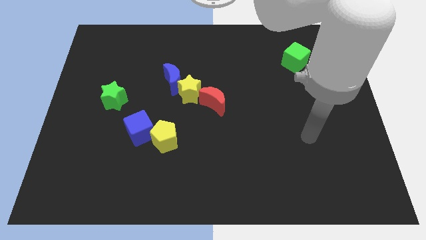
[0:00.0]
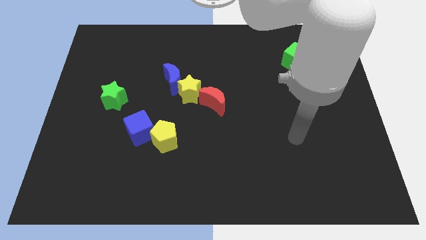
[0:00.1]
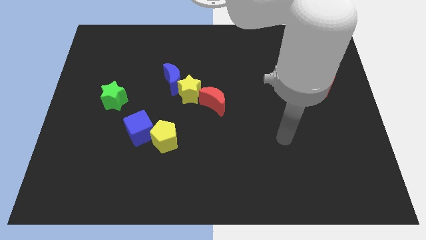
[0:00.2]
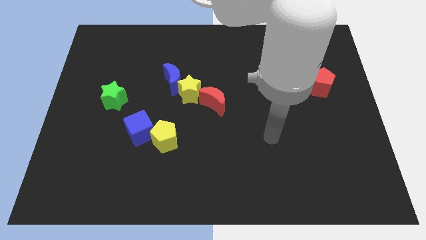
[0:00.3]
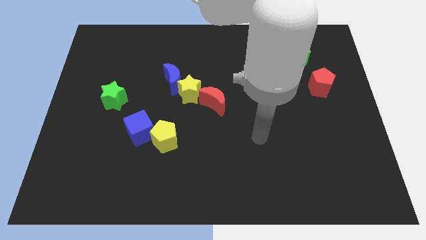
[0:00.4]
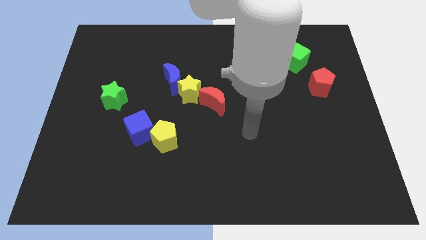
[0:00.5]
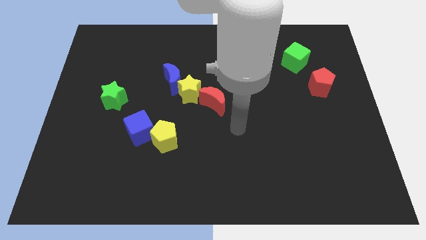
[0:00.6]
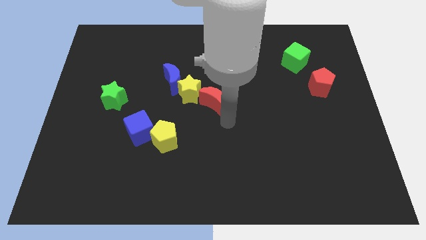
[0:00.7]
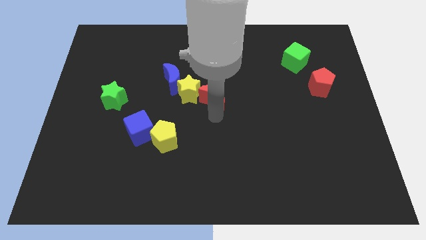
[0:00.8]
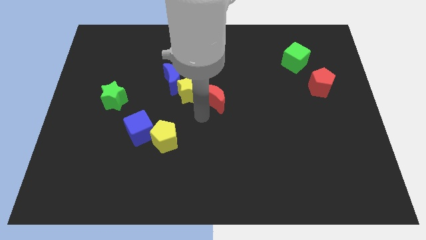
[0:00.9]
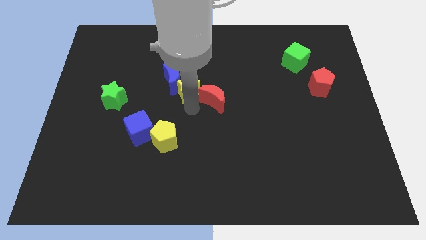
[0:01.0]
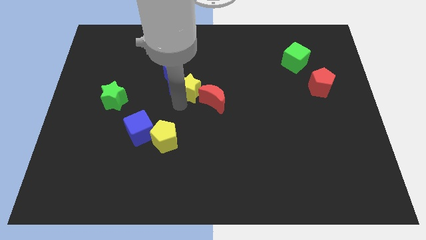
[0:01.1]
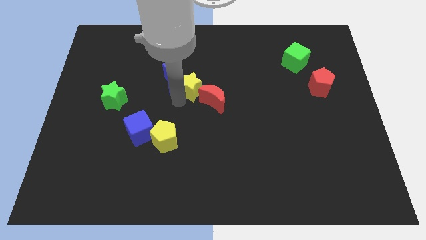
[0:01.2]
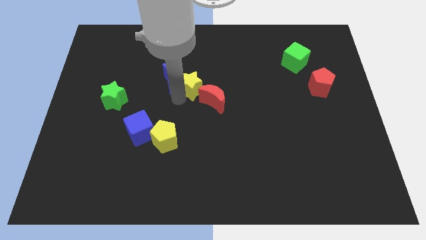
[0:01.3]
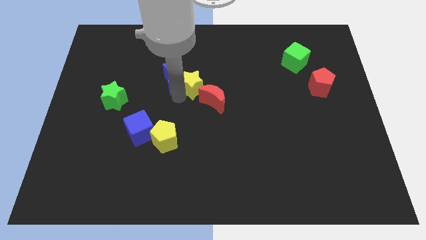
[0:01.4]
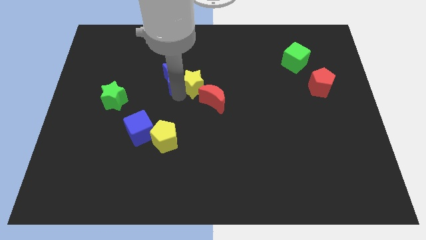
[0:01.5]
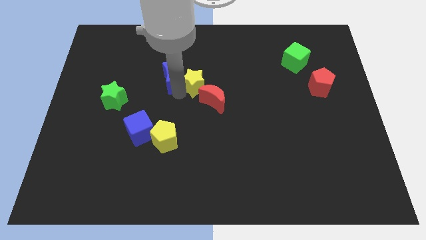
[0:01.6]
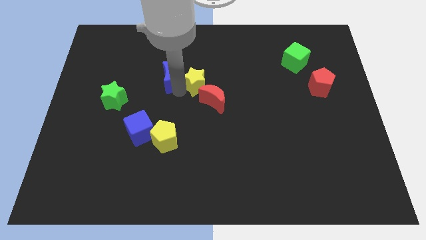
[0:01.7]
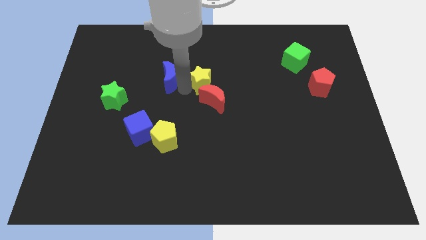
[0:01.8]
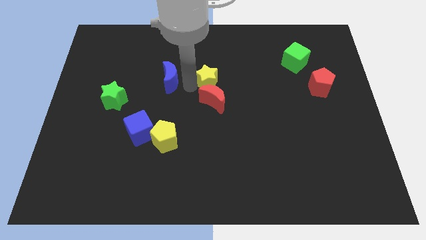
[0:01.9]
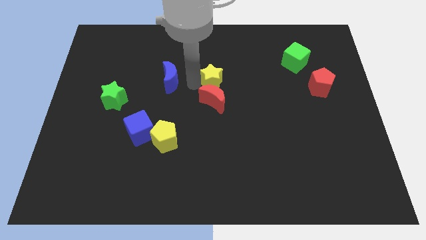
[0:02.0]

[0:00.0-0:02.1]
pull the blue moon apart from the yellow star

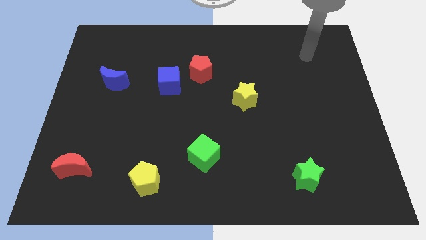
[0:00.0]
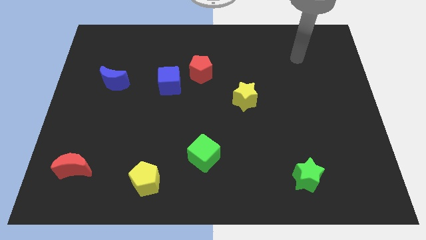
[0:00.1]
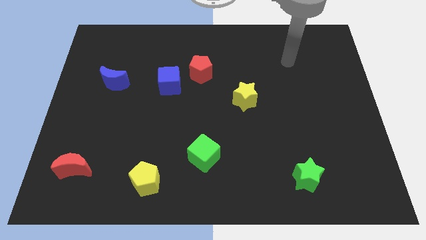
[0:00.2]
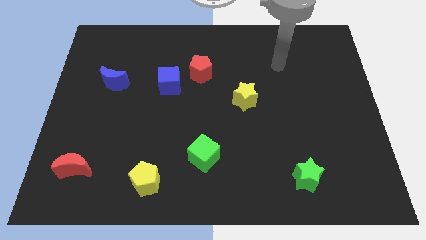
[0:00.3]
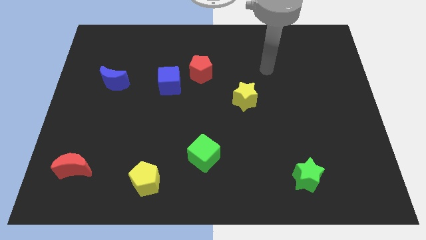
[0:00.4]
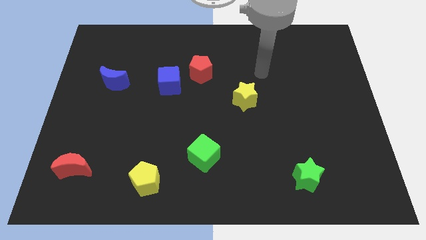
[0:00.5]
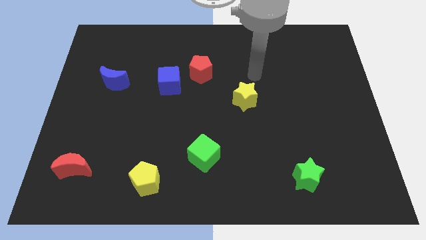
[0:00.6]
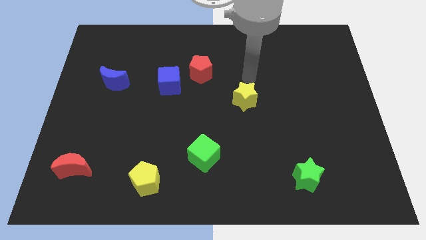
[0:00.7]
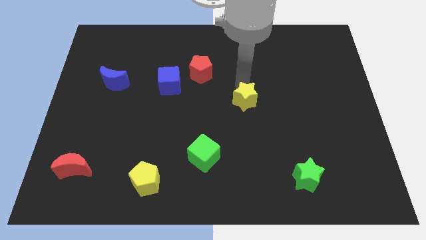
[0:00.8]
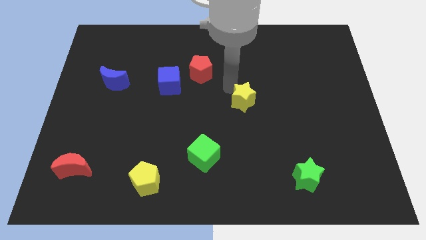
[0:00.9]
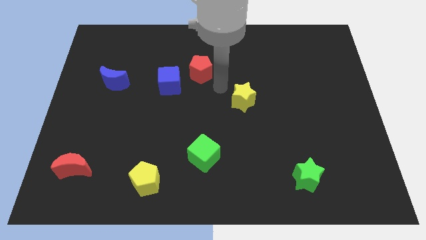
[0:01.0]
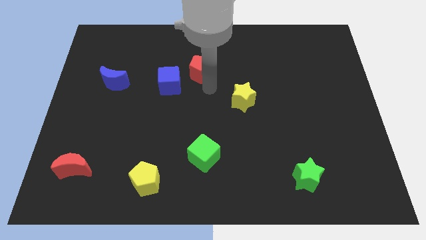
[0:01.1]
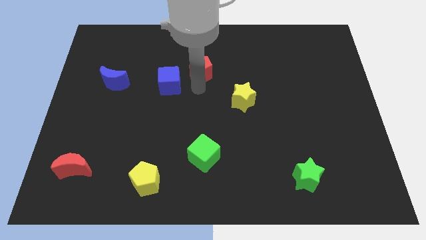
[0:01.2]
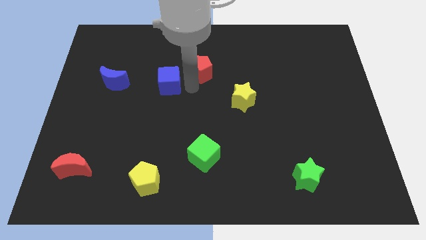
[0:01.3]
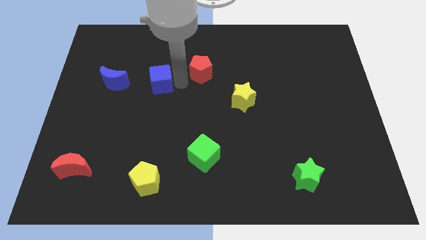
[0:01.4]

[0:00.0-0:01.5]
move the red pentagon away from the blue cube

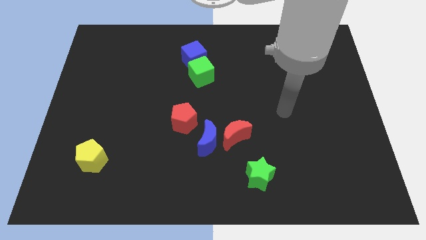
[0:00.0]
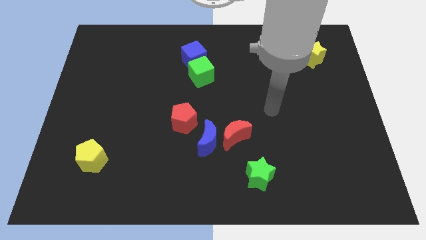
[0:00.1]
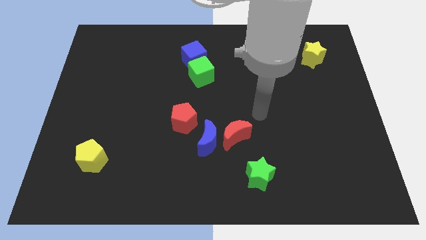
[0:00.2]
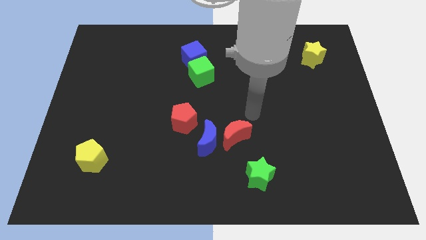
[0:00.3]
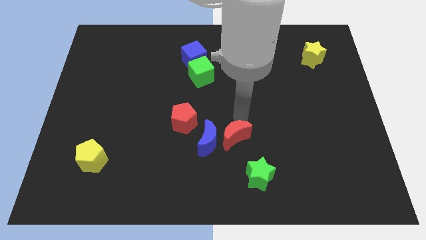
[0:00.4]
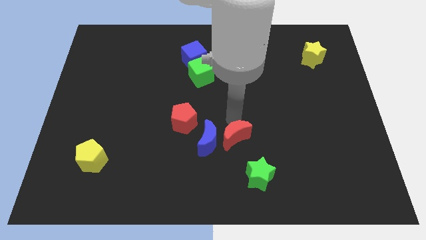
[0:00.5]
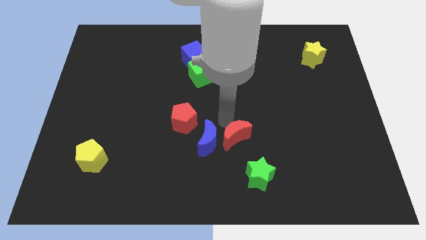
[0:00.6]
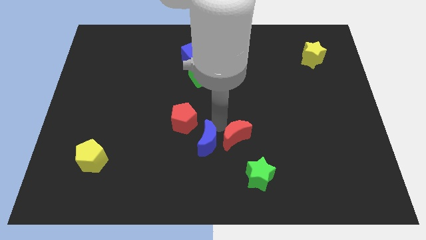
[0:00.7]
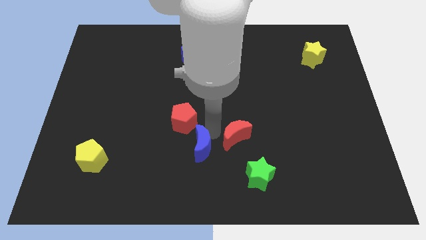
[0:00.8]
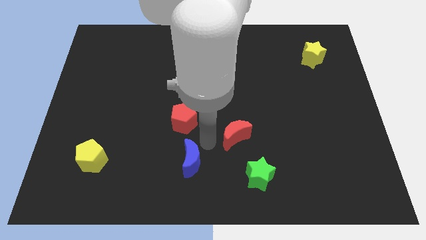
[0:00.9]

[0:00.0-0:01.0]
pull the red moon apart from the blue moon

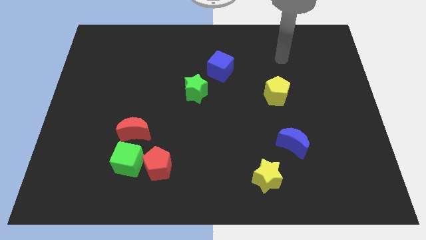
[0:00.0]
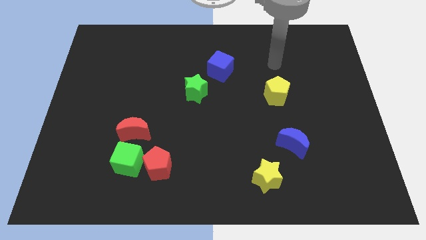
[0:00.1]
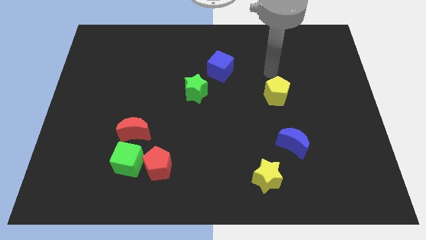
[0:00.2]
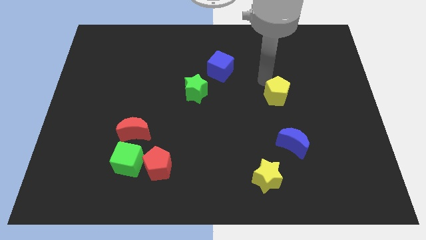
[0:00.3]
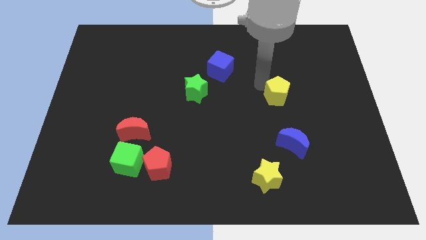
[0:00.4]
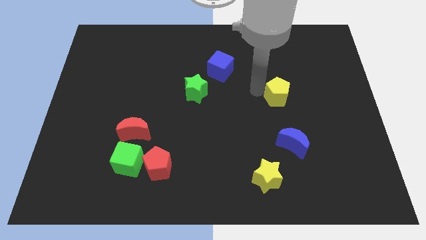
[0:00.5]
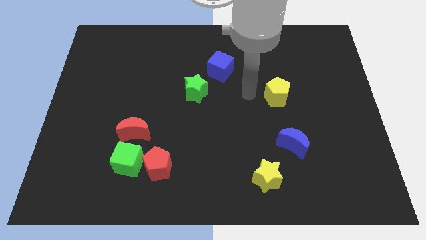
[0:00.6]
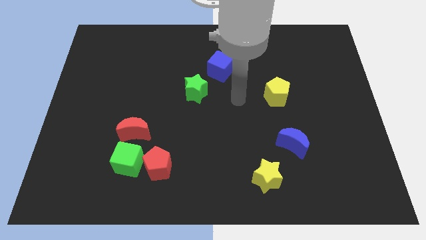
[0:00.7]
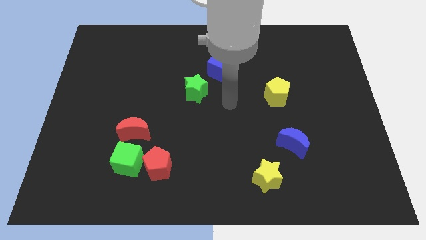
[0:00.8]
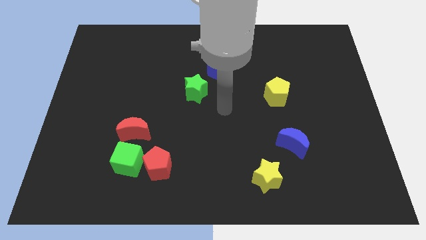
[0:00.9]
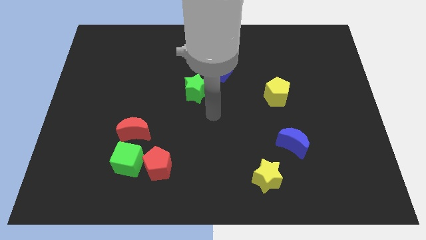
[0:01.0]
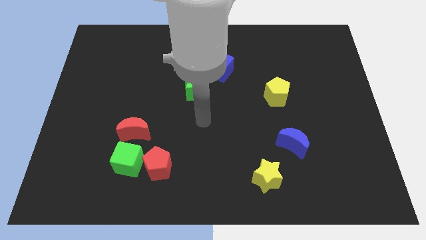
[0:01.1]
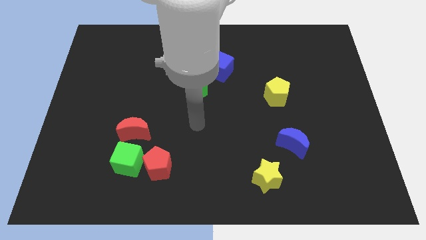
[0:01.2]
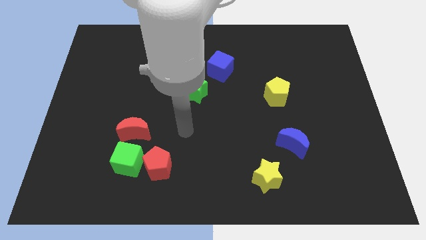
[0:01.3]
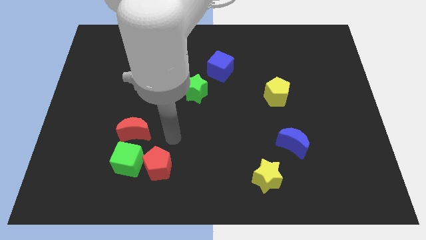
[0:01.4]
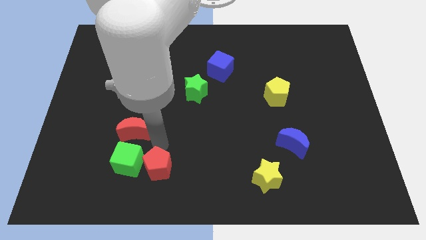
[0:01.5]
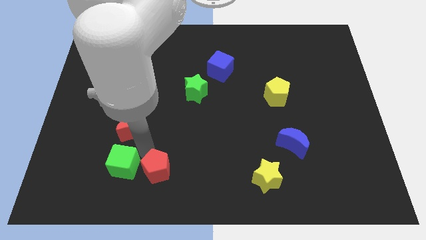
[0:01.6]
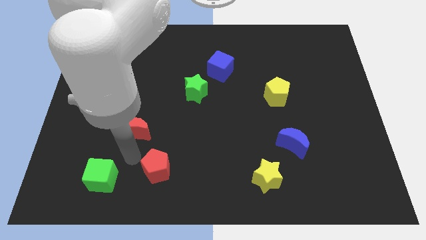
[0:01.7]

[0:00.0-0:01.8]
separate the red pentagon from the green cube

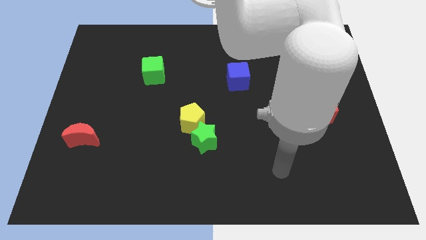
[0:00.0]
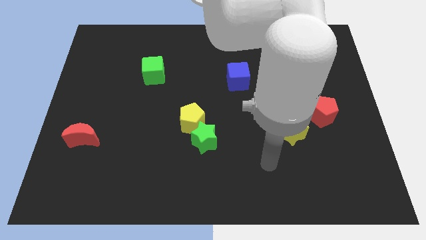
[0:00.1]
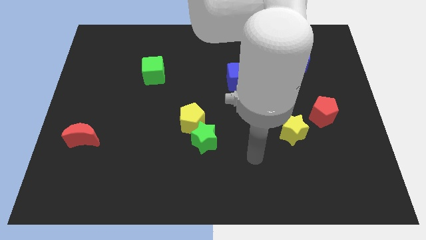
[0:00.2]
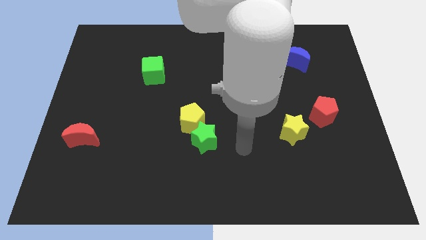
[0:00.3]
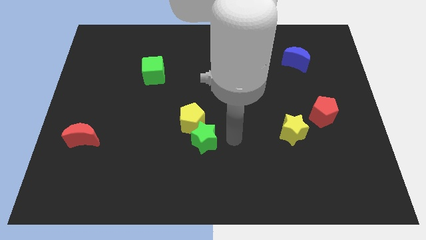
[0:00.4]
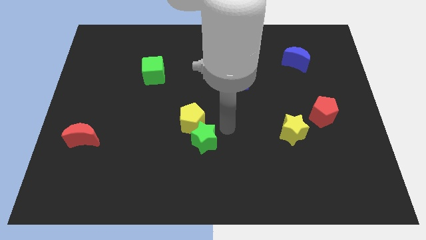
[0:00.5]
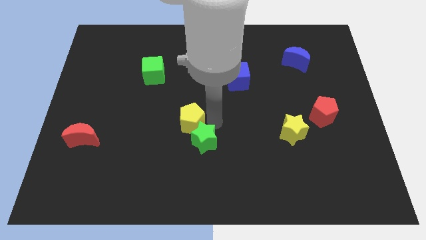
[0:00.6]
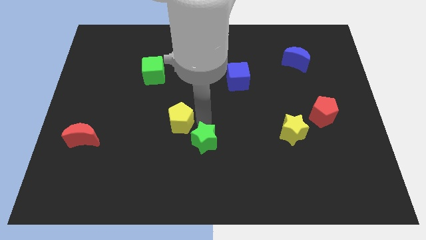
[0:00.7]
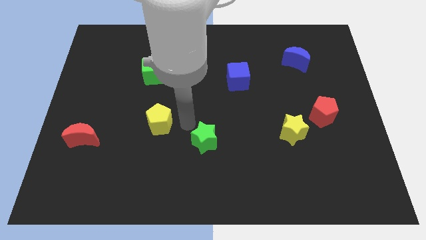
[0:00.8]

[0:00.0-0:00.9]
separate the green star from the yellow pentagon

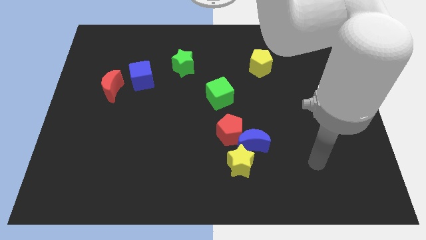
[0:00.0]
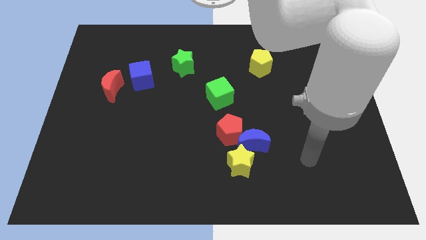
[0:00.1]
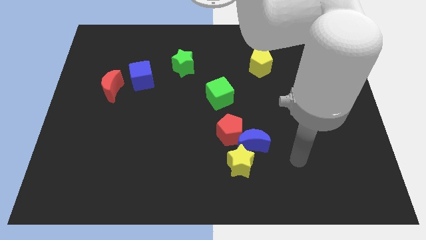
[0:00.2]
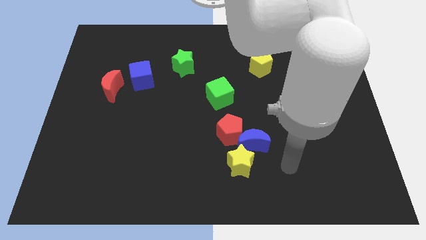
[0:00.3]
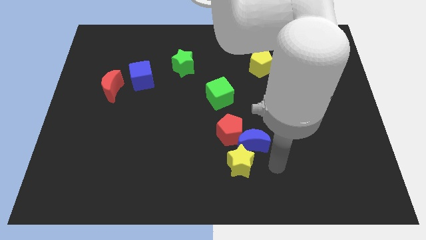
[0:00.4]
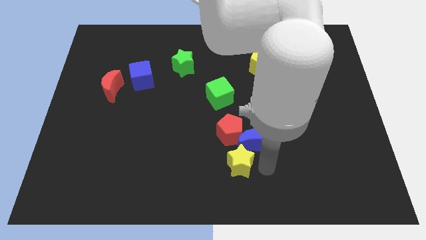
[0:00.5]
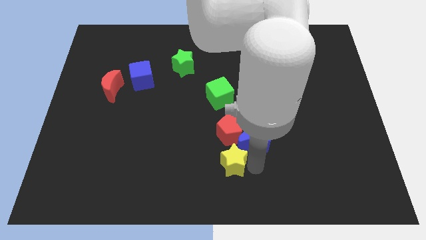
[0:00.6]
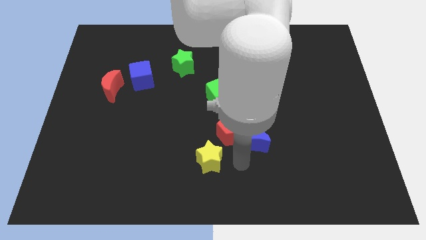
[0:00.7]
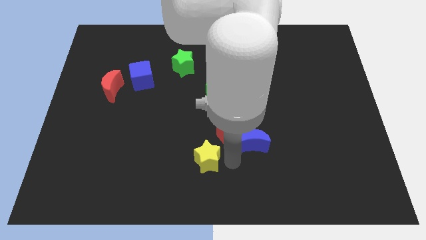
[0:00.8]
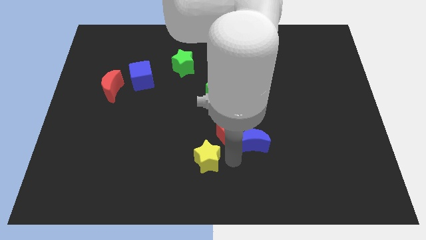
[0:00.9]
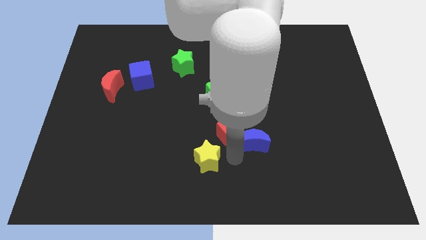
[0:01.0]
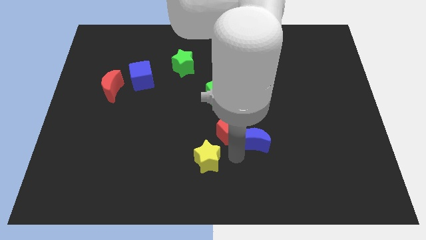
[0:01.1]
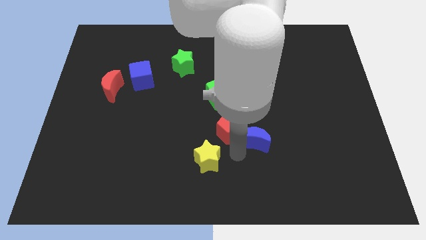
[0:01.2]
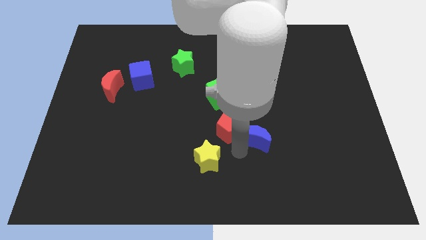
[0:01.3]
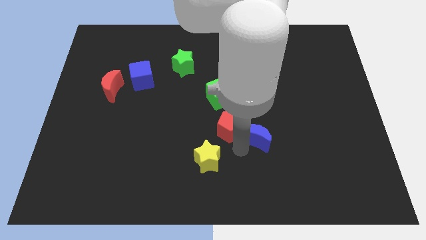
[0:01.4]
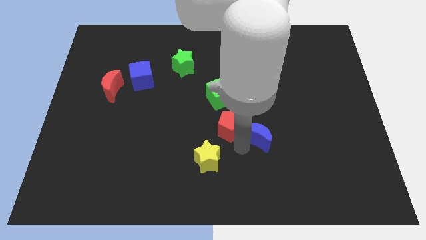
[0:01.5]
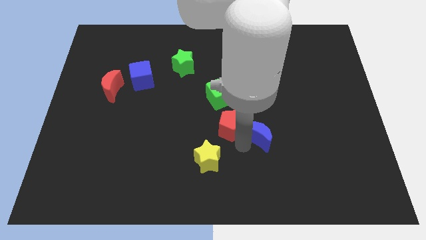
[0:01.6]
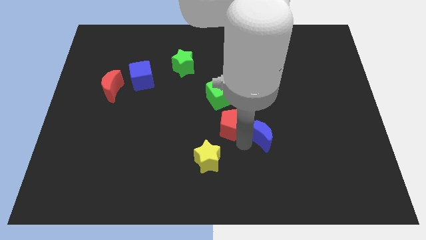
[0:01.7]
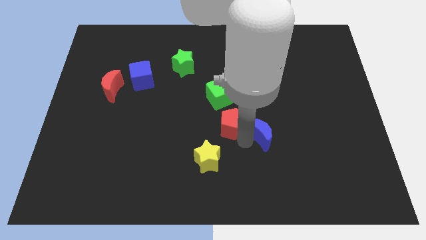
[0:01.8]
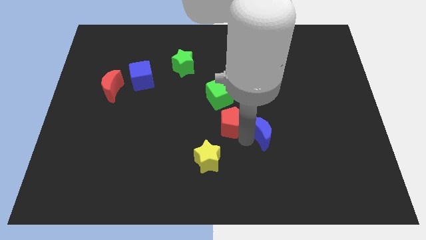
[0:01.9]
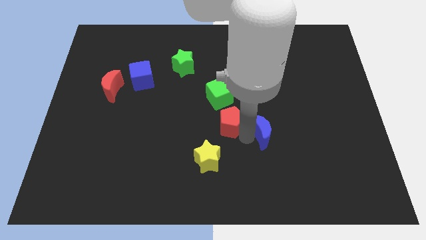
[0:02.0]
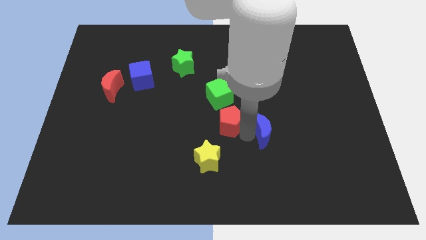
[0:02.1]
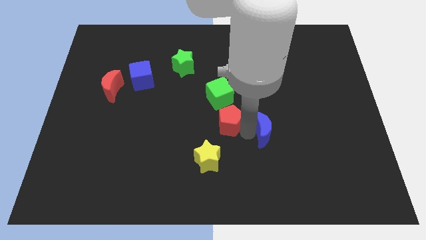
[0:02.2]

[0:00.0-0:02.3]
move the blue moon away from the red pentagon and yellow star
